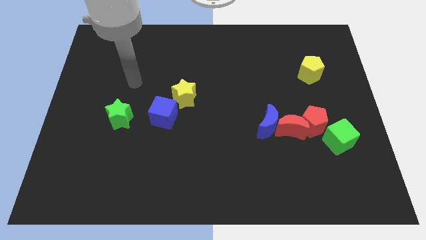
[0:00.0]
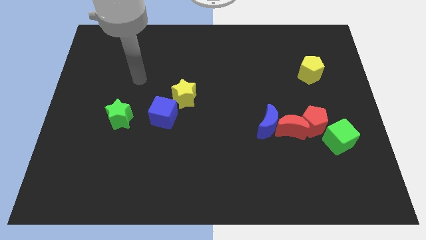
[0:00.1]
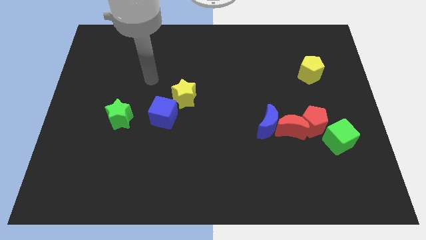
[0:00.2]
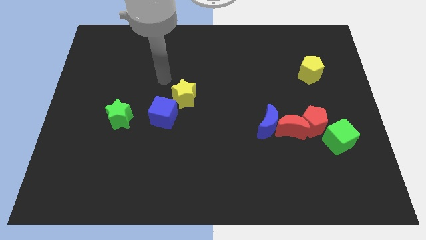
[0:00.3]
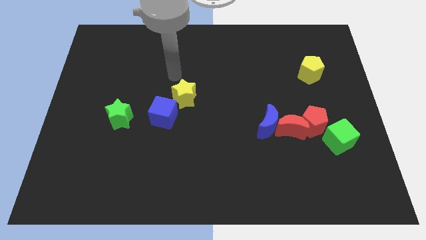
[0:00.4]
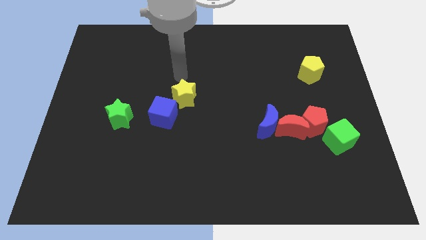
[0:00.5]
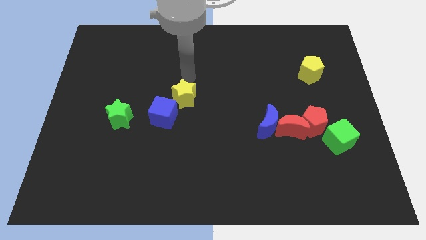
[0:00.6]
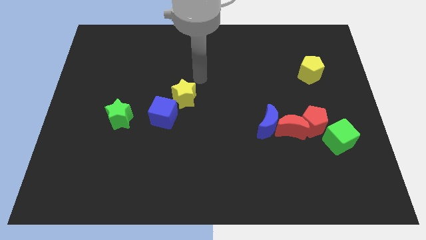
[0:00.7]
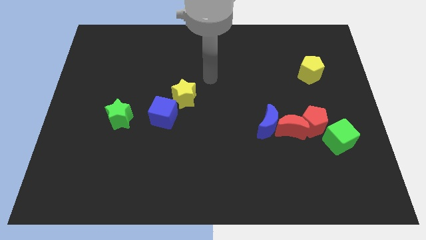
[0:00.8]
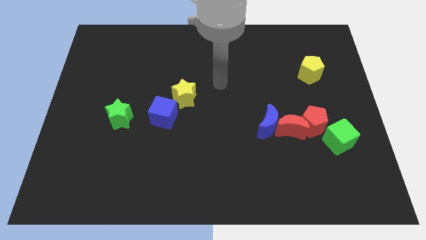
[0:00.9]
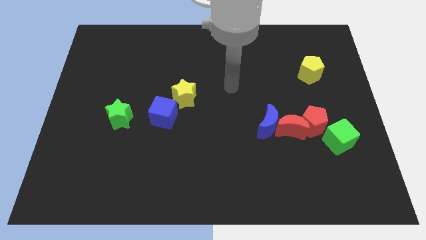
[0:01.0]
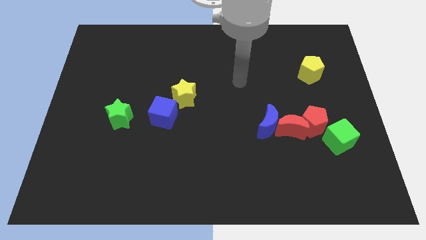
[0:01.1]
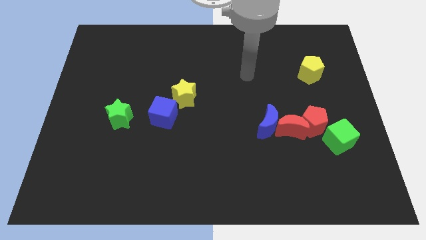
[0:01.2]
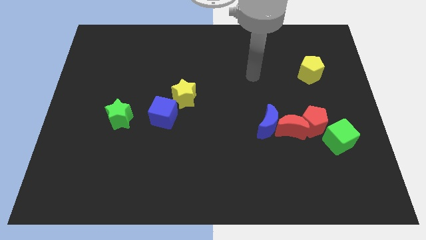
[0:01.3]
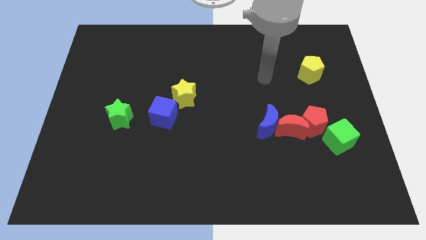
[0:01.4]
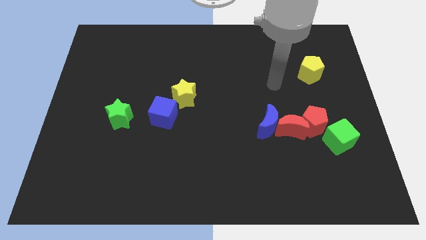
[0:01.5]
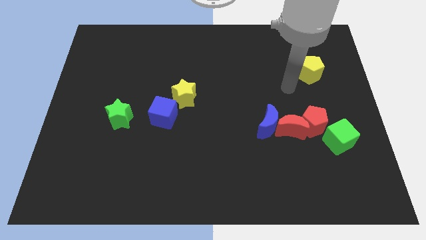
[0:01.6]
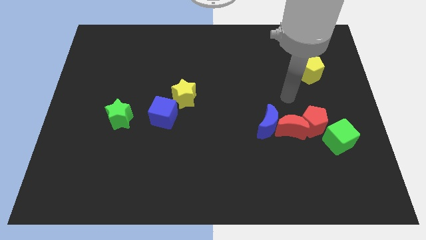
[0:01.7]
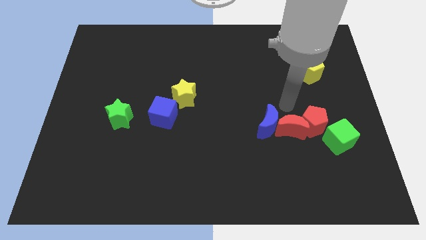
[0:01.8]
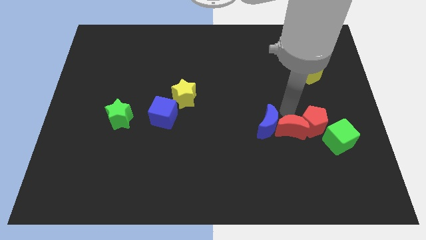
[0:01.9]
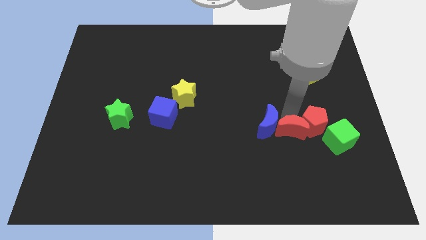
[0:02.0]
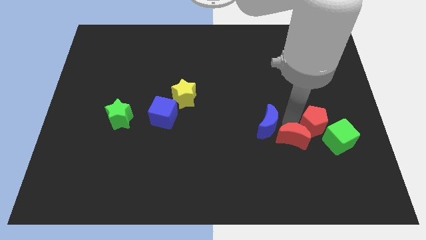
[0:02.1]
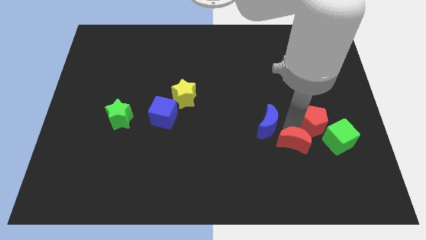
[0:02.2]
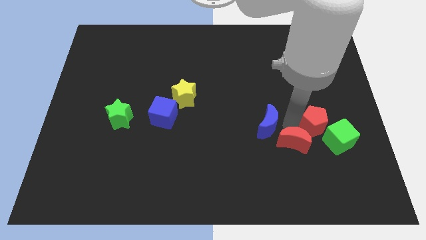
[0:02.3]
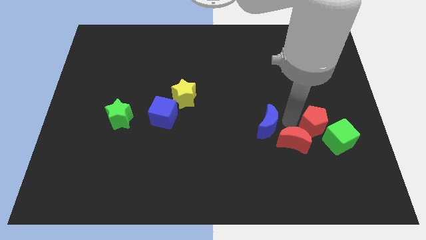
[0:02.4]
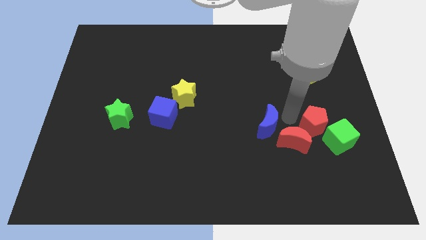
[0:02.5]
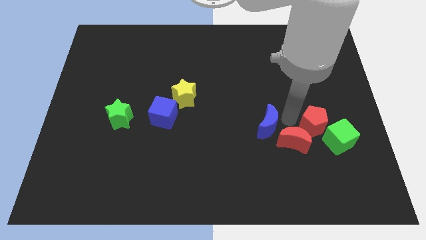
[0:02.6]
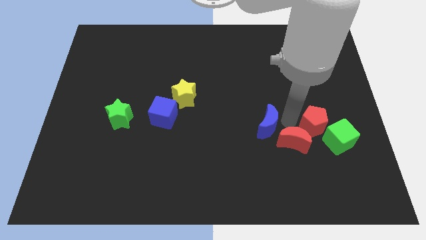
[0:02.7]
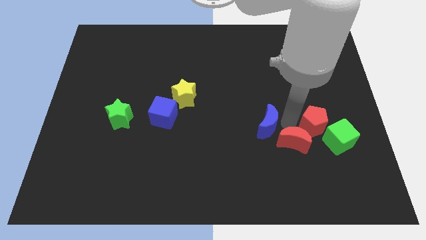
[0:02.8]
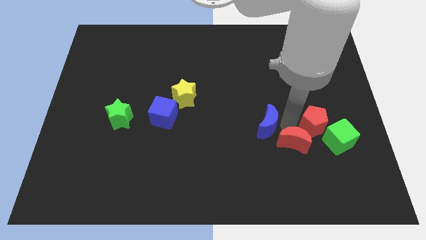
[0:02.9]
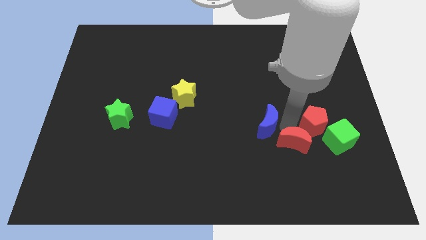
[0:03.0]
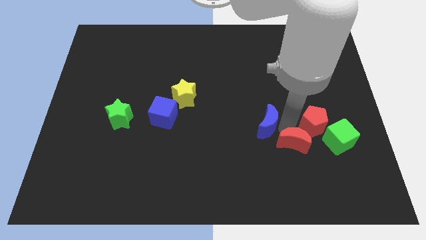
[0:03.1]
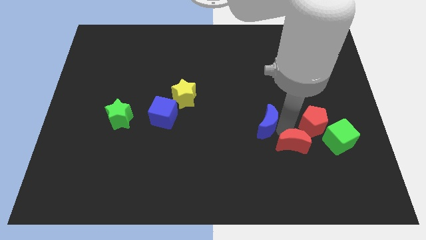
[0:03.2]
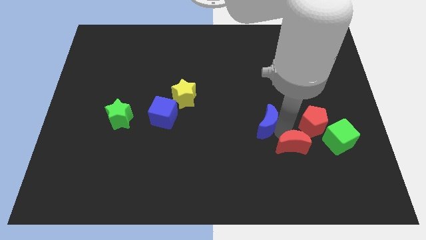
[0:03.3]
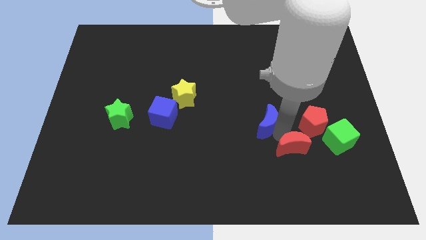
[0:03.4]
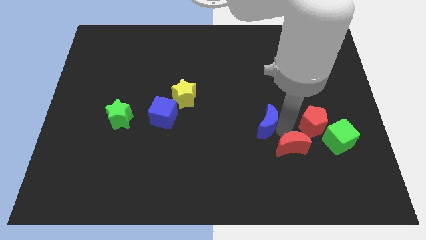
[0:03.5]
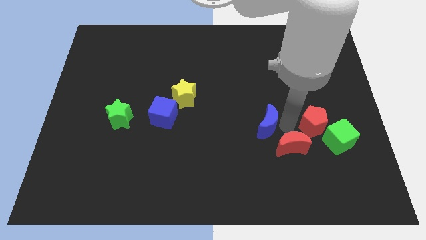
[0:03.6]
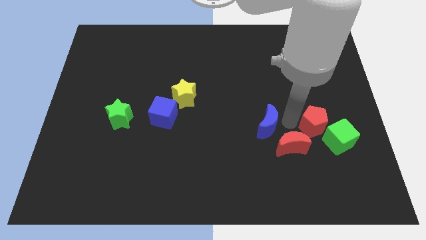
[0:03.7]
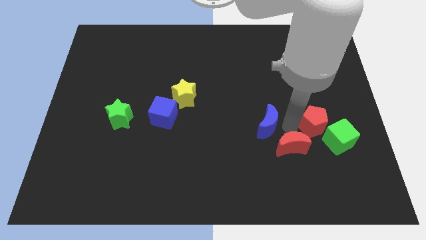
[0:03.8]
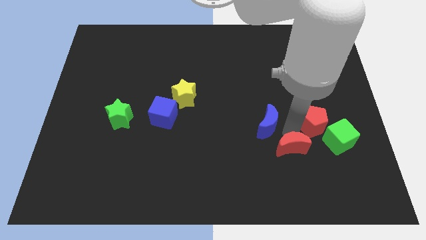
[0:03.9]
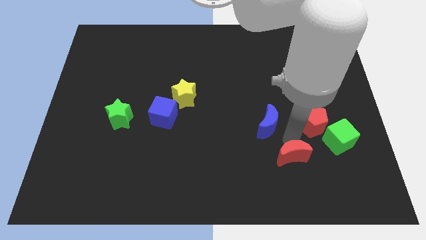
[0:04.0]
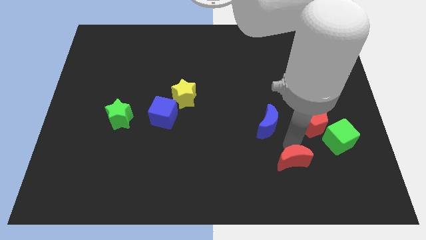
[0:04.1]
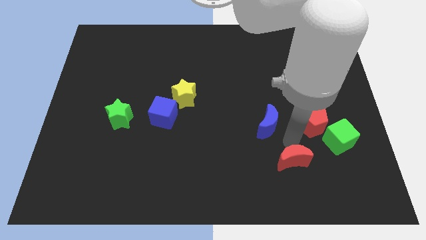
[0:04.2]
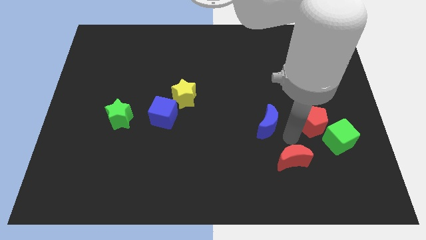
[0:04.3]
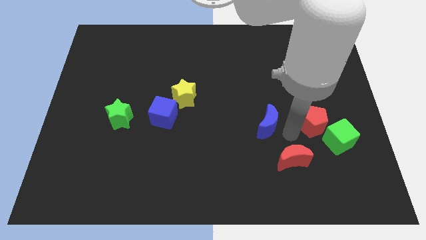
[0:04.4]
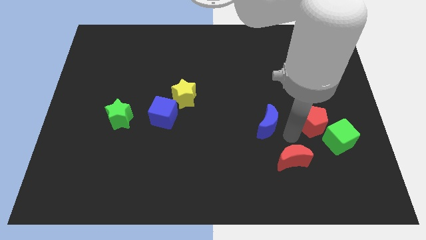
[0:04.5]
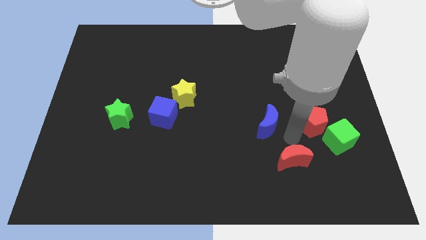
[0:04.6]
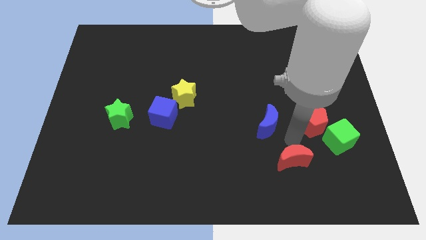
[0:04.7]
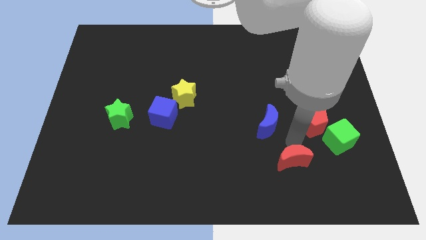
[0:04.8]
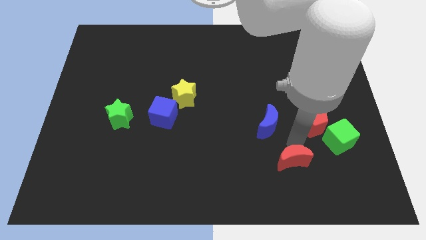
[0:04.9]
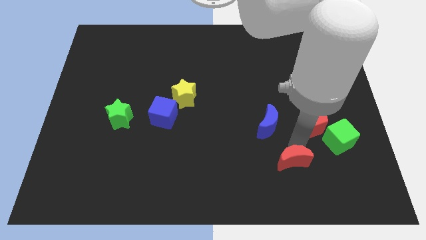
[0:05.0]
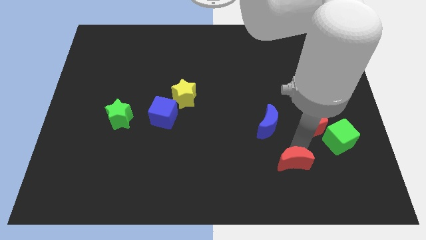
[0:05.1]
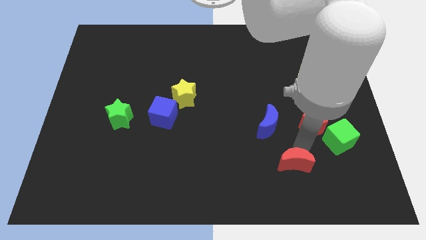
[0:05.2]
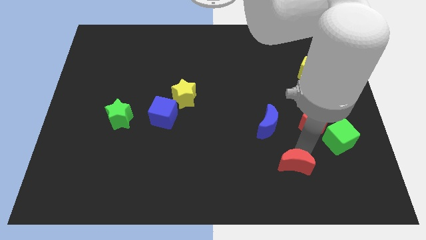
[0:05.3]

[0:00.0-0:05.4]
move the red moon away from the blue moon and red pentagon

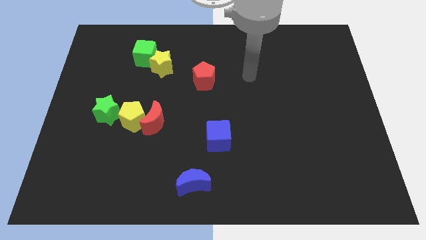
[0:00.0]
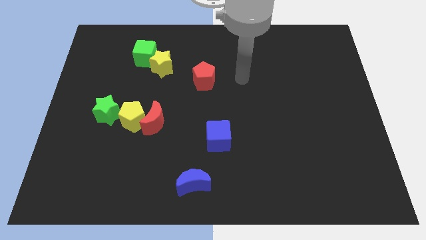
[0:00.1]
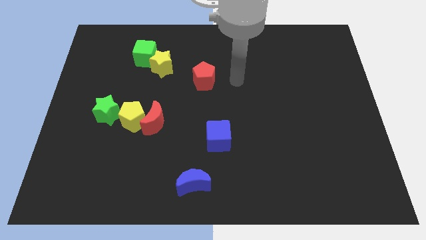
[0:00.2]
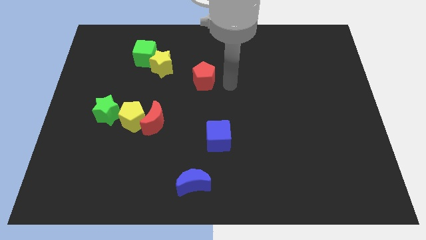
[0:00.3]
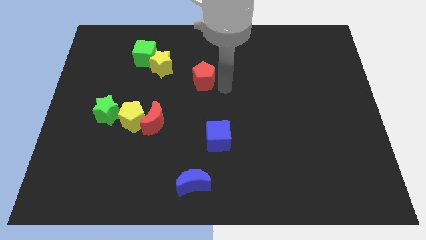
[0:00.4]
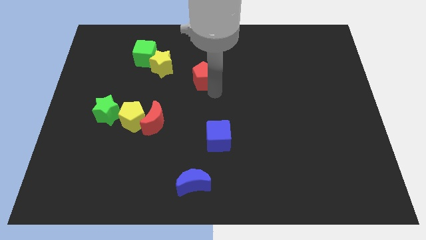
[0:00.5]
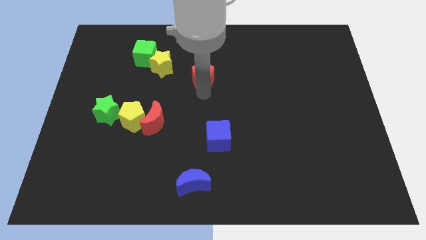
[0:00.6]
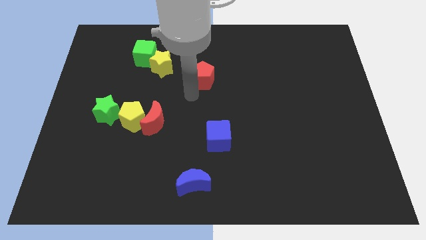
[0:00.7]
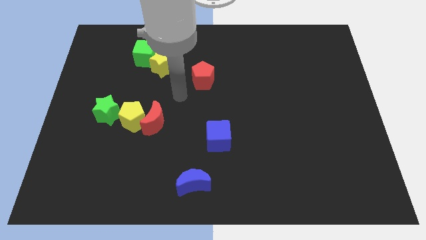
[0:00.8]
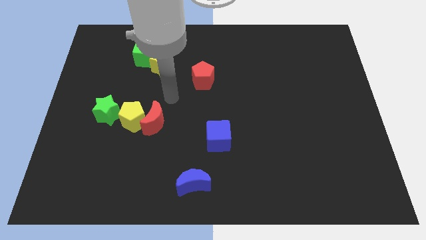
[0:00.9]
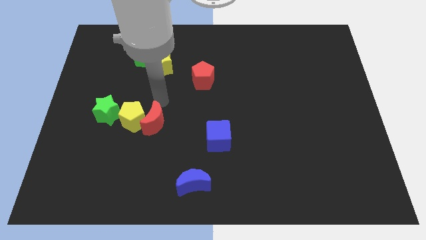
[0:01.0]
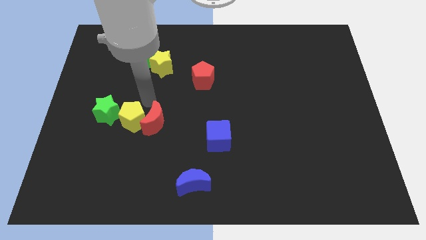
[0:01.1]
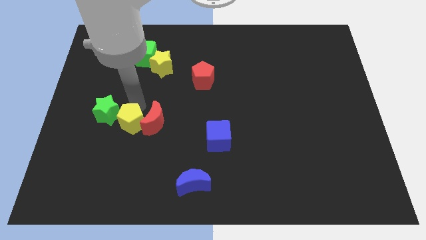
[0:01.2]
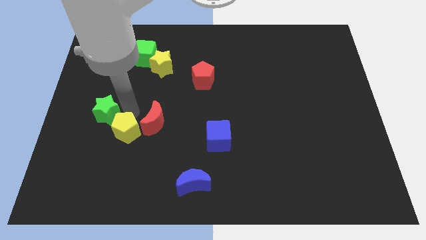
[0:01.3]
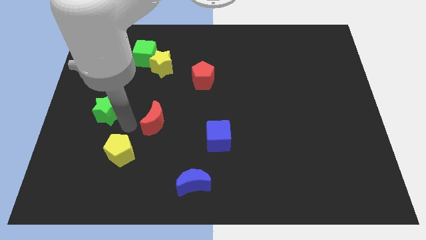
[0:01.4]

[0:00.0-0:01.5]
move the red moon away from the yellow pentagon

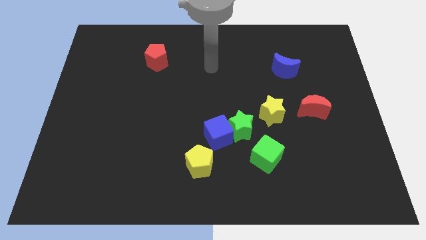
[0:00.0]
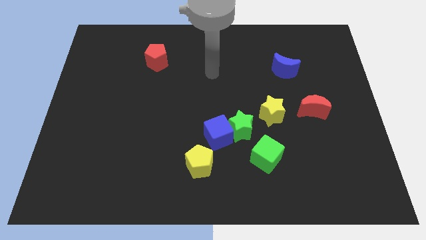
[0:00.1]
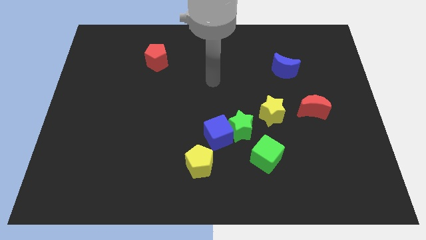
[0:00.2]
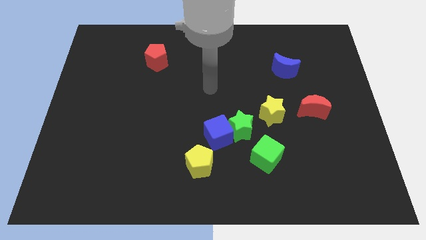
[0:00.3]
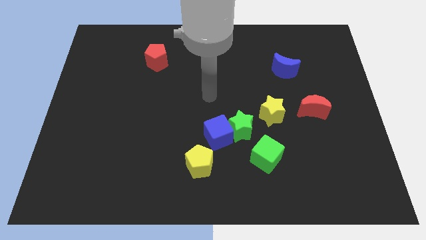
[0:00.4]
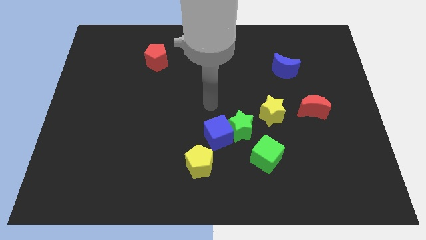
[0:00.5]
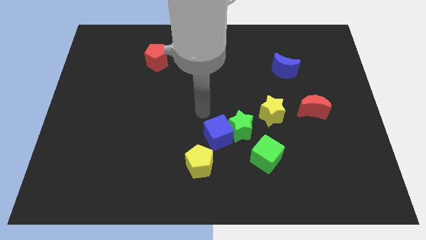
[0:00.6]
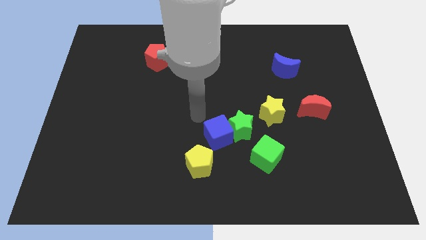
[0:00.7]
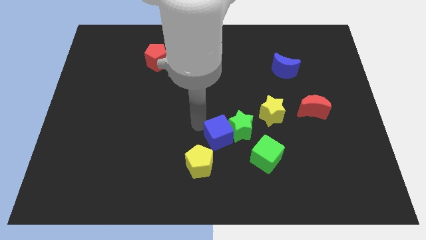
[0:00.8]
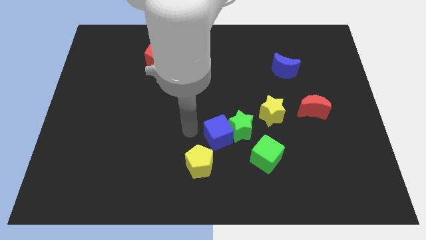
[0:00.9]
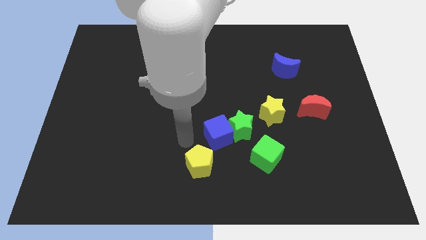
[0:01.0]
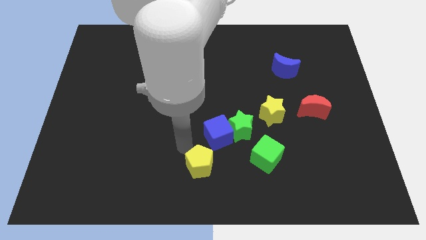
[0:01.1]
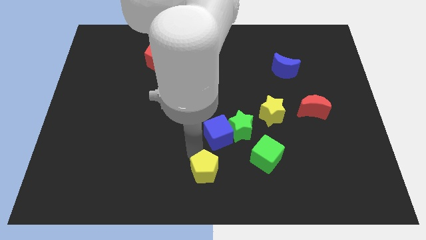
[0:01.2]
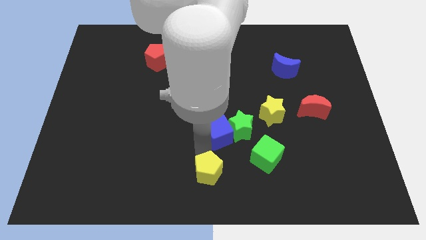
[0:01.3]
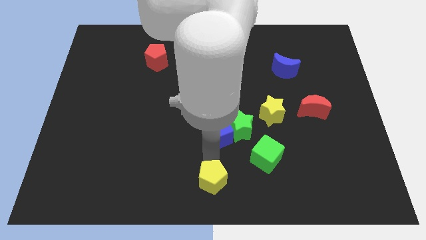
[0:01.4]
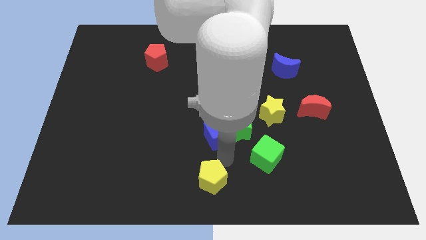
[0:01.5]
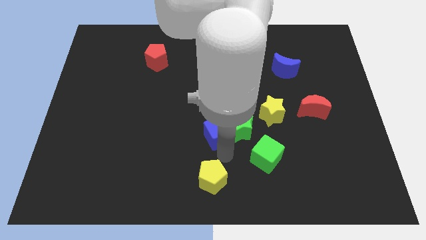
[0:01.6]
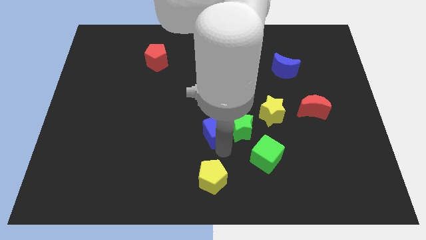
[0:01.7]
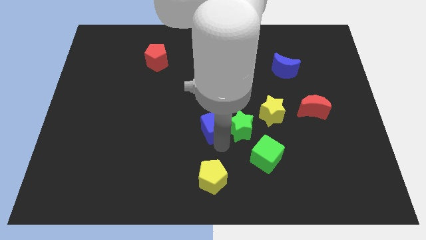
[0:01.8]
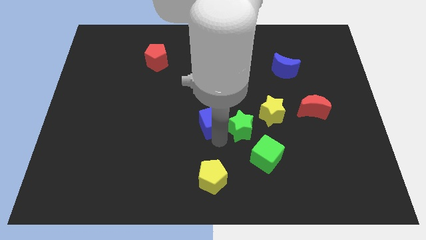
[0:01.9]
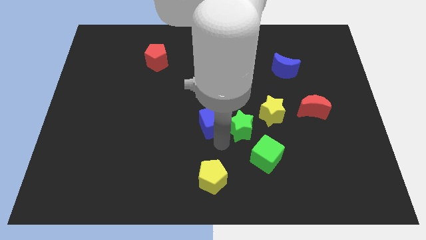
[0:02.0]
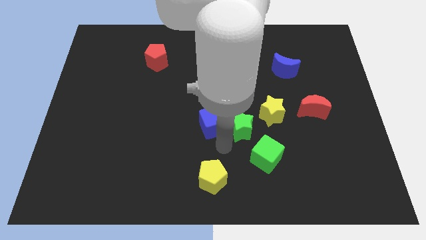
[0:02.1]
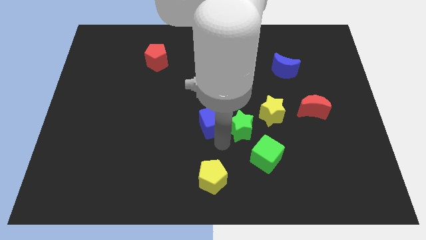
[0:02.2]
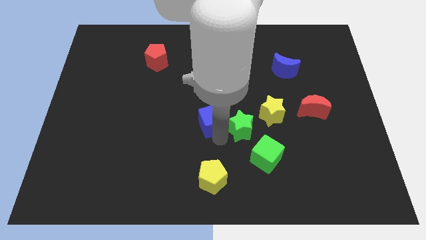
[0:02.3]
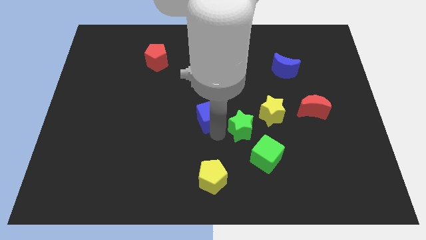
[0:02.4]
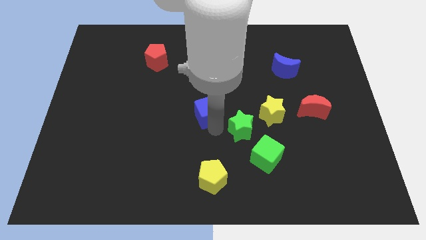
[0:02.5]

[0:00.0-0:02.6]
pull the blue cube apart from the green star and yellow pentagon
